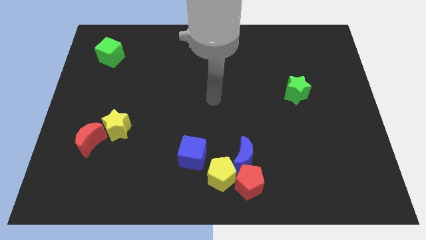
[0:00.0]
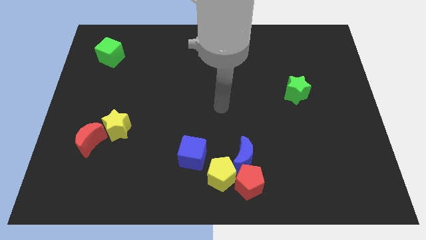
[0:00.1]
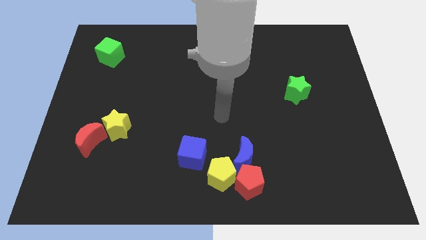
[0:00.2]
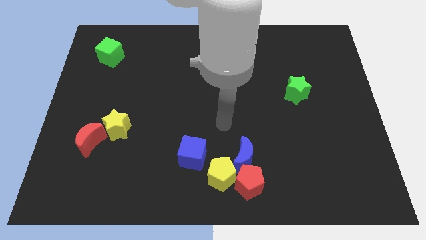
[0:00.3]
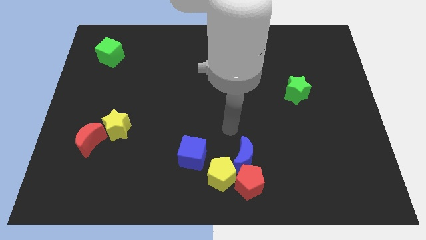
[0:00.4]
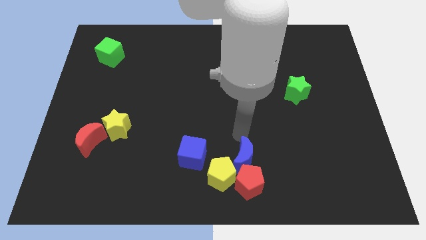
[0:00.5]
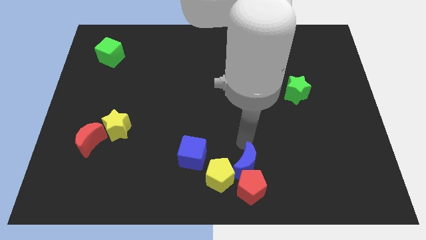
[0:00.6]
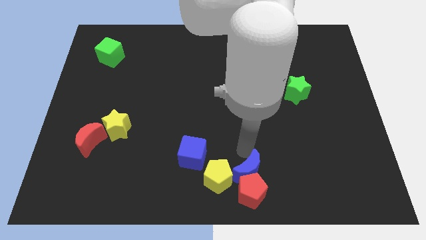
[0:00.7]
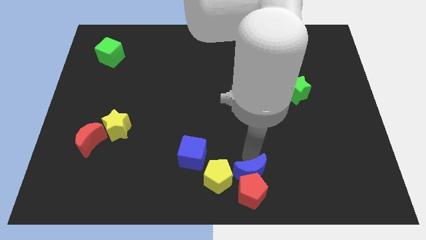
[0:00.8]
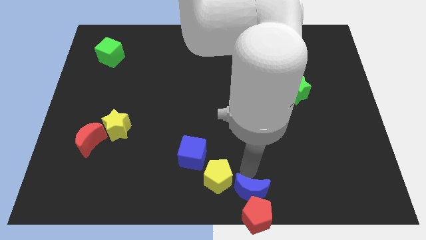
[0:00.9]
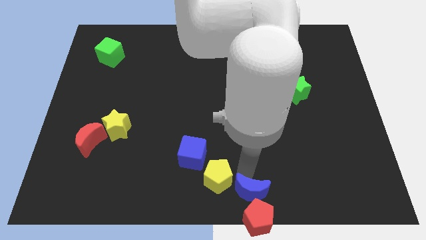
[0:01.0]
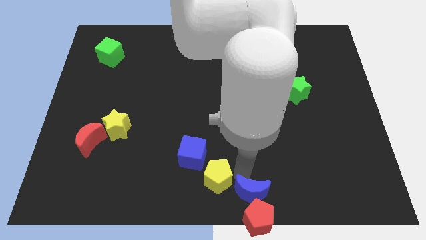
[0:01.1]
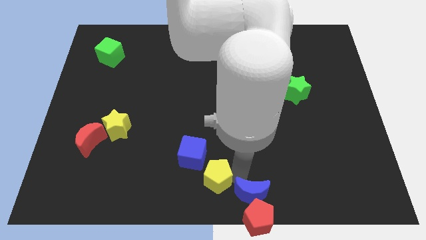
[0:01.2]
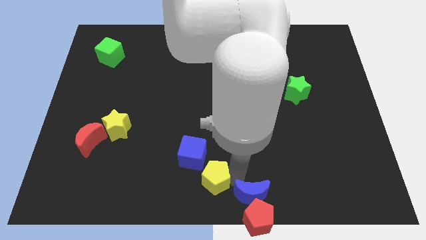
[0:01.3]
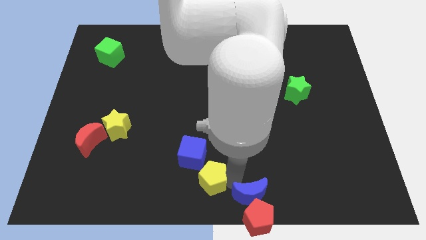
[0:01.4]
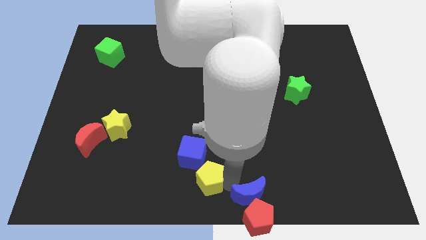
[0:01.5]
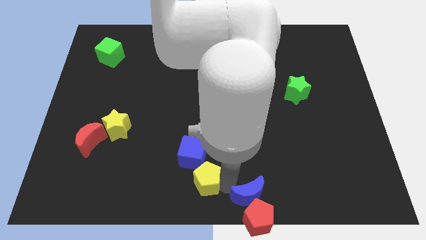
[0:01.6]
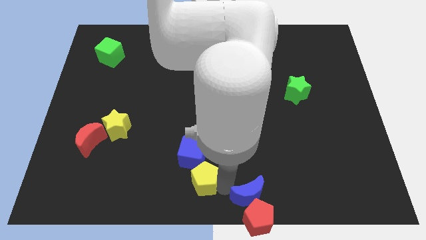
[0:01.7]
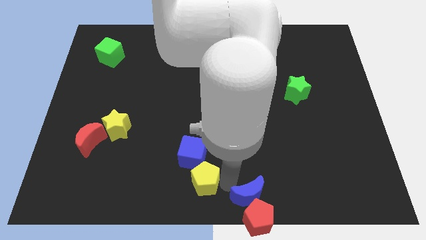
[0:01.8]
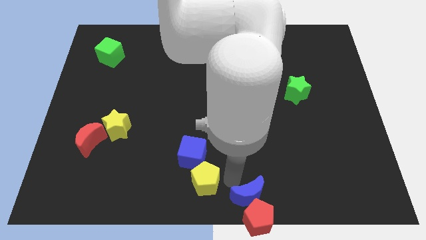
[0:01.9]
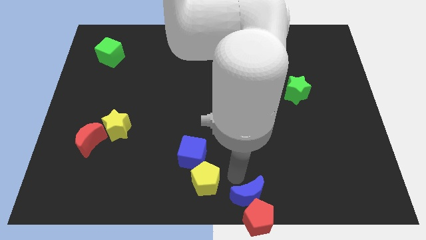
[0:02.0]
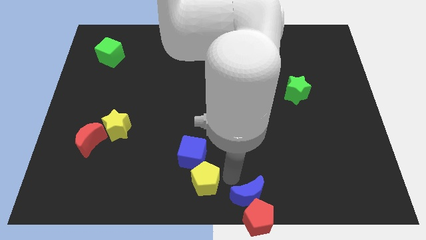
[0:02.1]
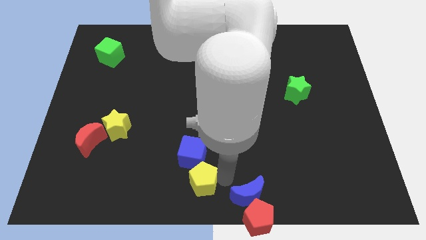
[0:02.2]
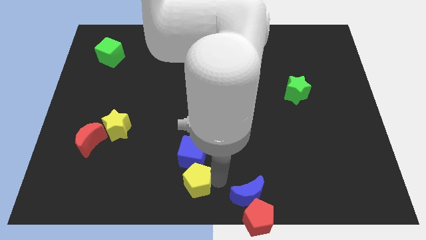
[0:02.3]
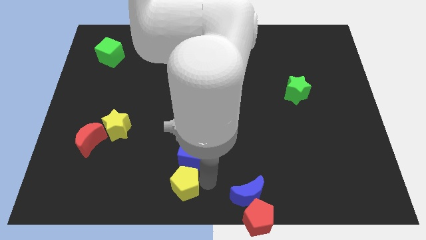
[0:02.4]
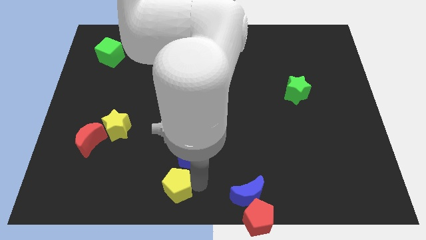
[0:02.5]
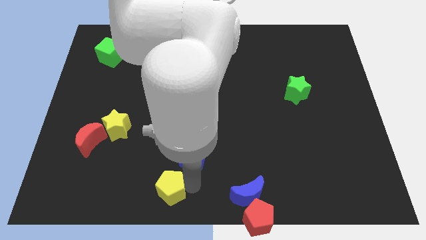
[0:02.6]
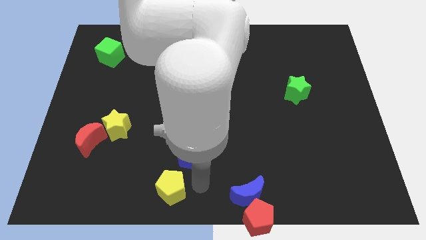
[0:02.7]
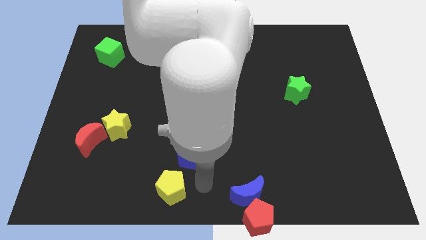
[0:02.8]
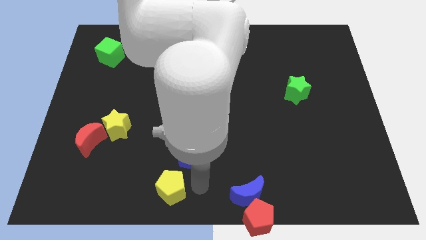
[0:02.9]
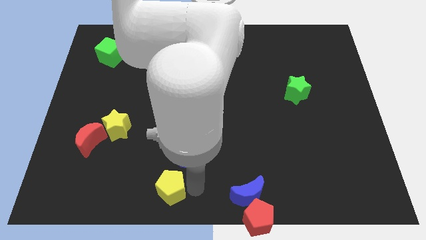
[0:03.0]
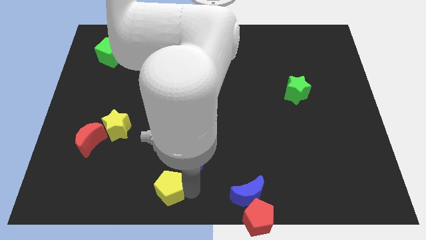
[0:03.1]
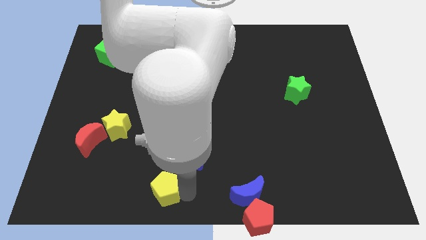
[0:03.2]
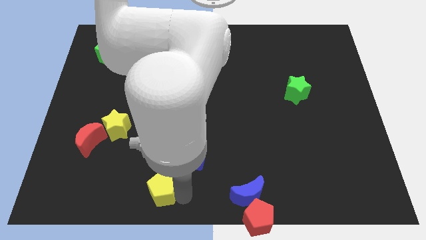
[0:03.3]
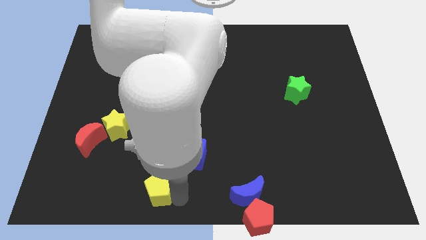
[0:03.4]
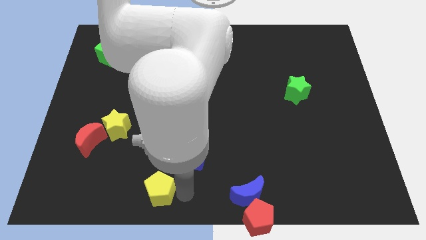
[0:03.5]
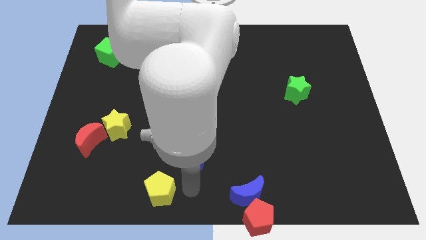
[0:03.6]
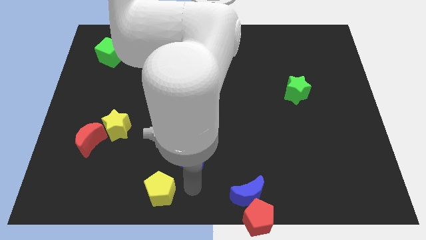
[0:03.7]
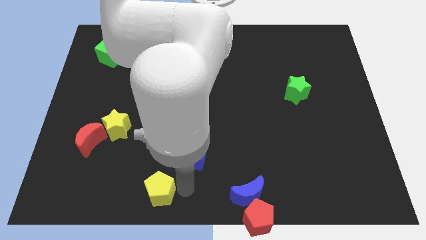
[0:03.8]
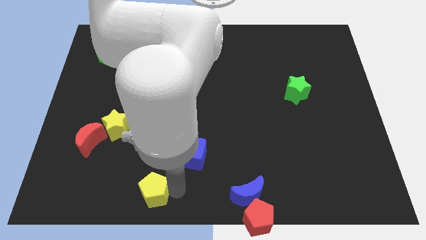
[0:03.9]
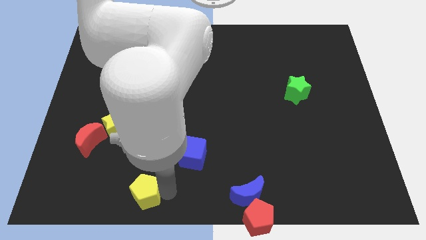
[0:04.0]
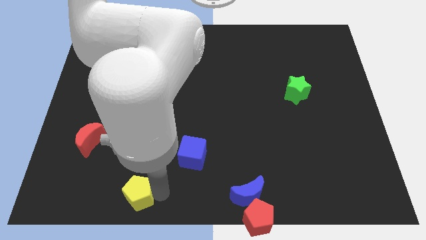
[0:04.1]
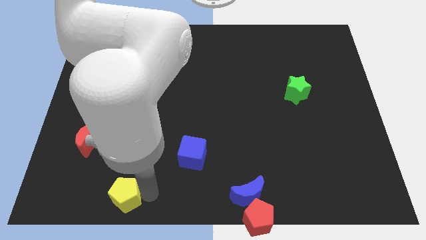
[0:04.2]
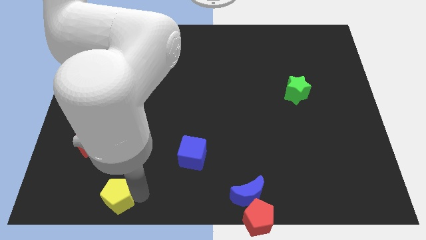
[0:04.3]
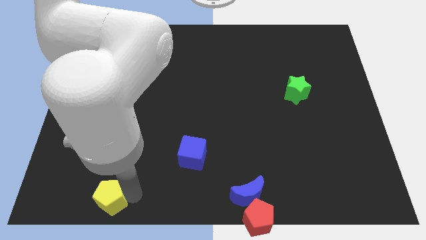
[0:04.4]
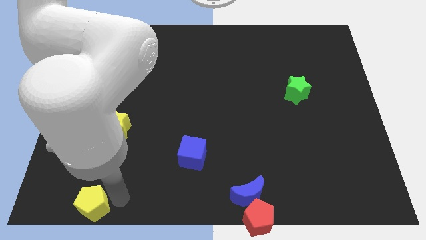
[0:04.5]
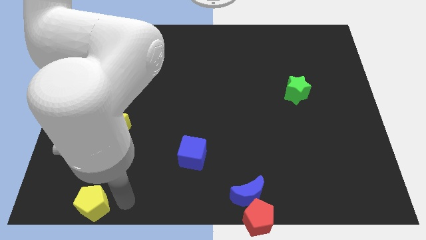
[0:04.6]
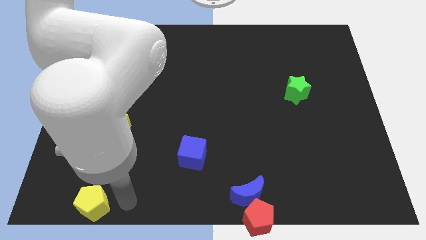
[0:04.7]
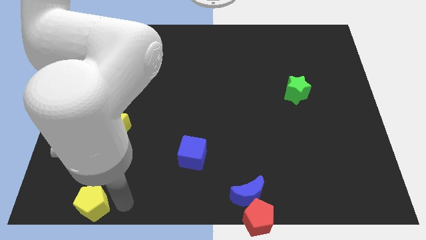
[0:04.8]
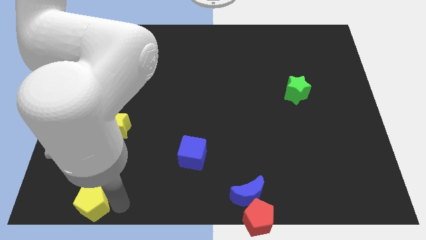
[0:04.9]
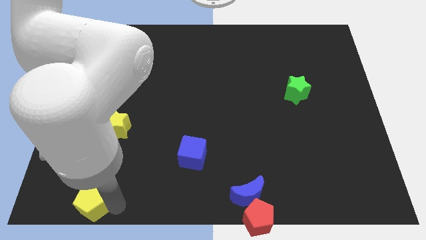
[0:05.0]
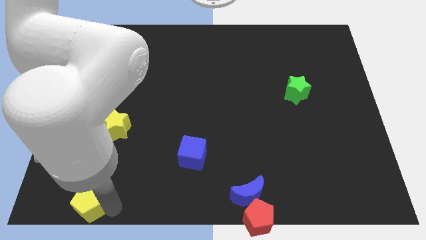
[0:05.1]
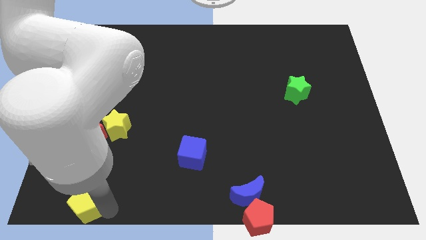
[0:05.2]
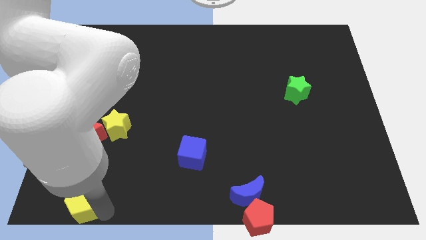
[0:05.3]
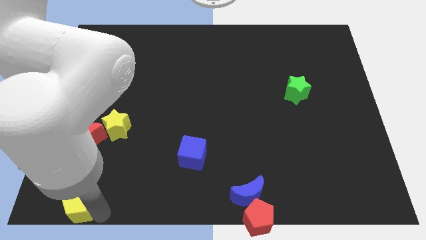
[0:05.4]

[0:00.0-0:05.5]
move the yellow pentagon to the bottom left corner
